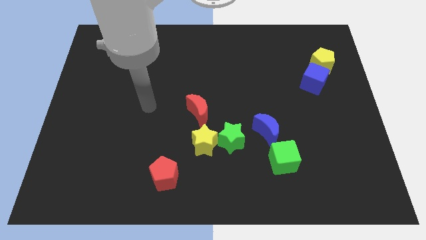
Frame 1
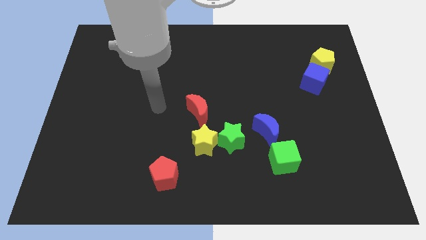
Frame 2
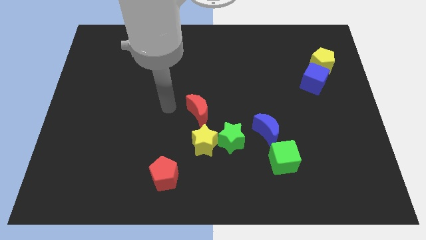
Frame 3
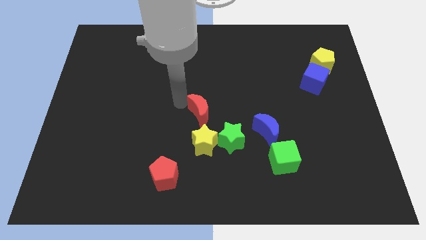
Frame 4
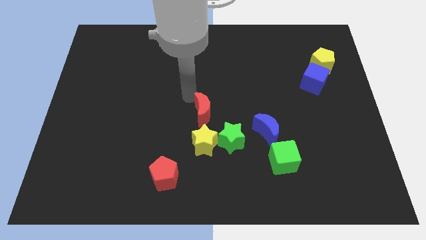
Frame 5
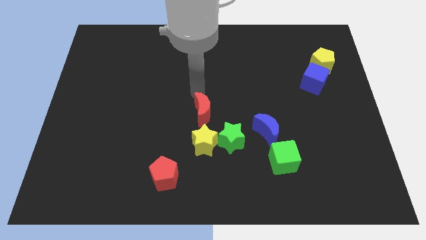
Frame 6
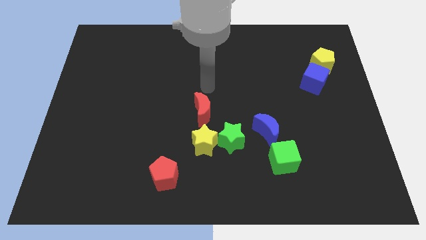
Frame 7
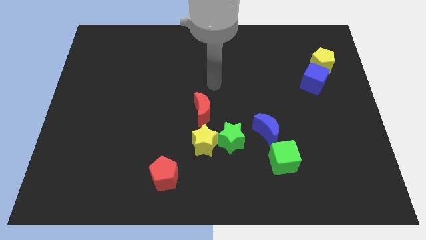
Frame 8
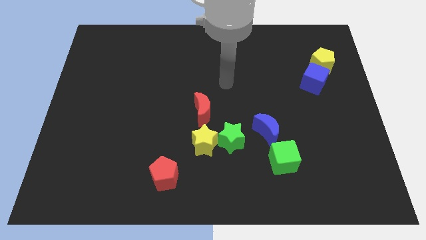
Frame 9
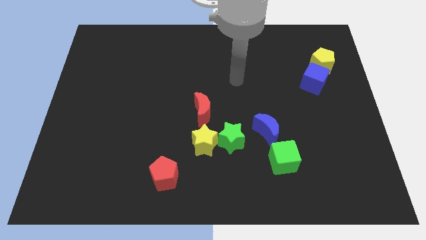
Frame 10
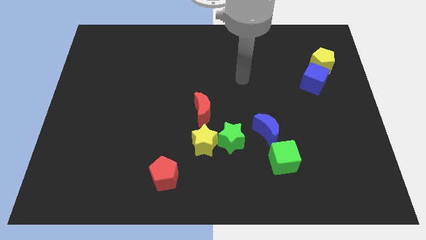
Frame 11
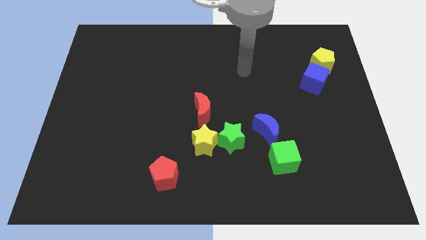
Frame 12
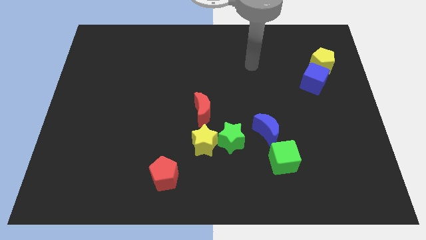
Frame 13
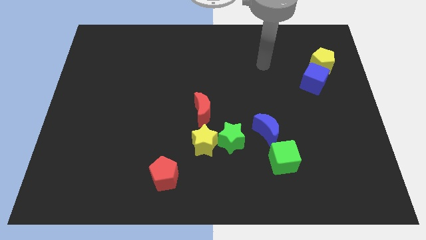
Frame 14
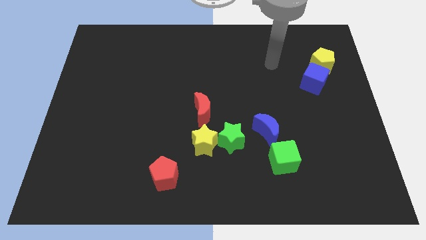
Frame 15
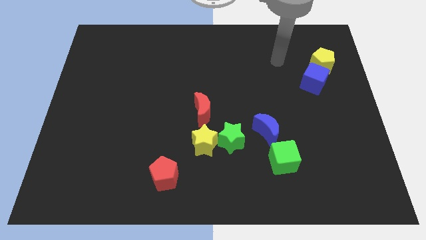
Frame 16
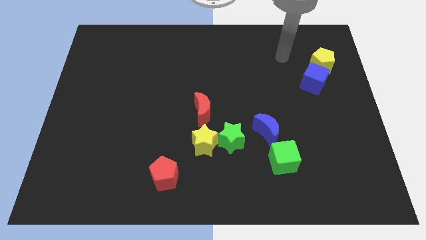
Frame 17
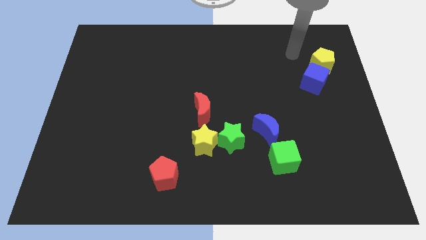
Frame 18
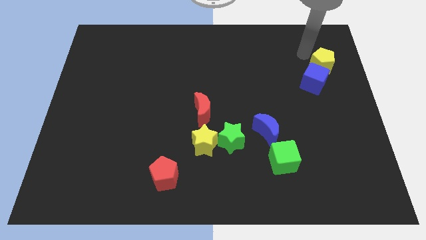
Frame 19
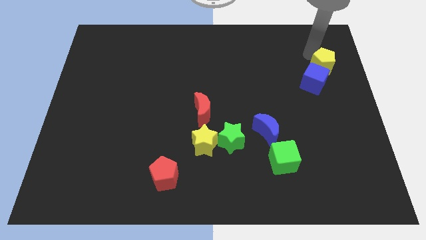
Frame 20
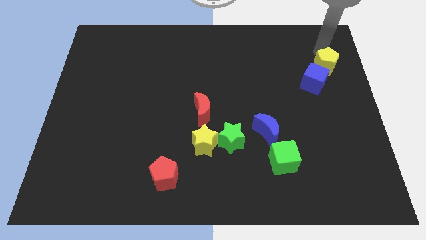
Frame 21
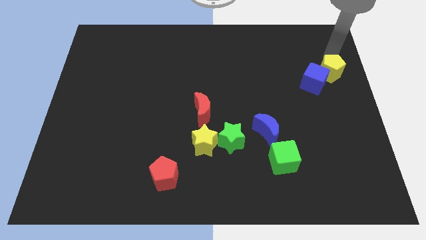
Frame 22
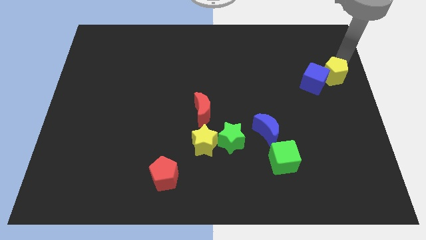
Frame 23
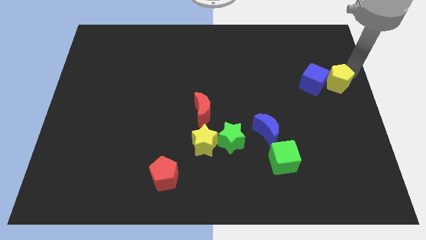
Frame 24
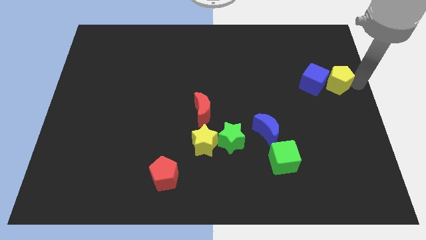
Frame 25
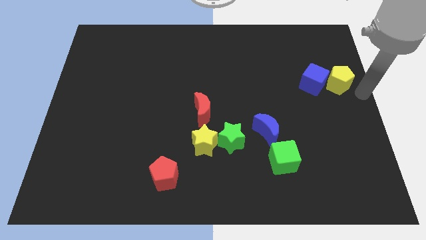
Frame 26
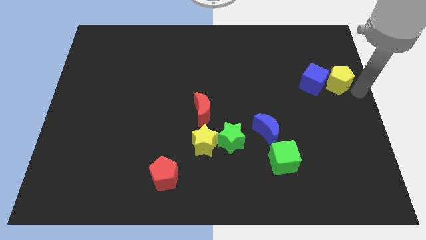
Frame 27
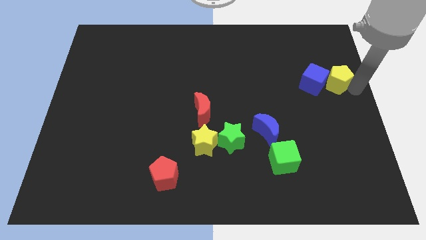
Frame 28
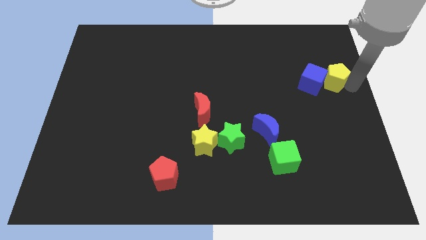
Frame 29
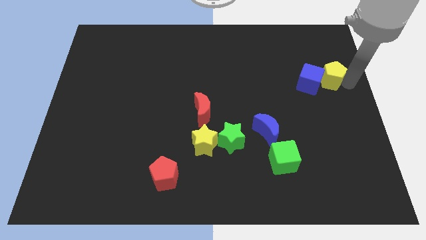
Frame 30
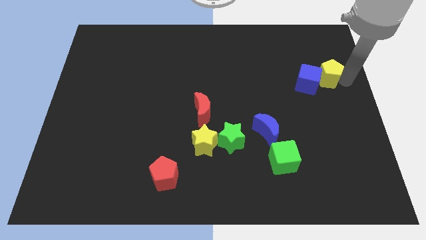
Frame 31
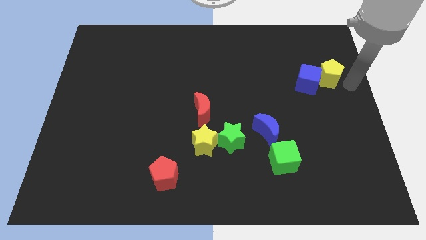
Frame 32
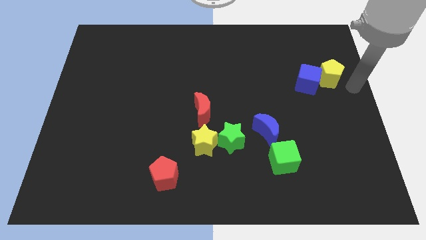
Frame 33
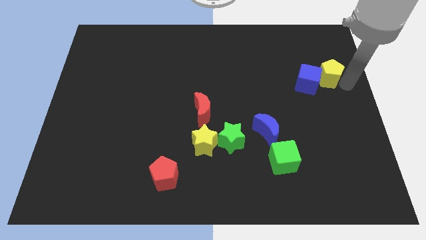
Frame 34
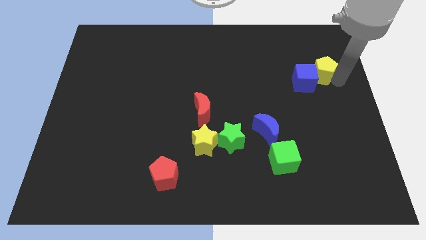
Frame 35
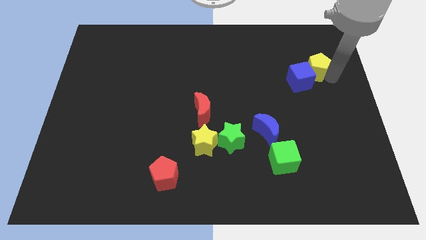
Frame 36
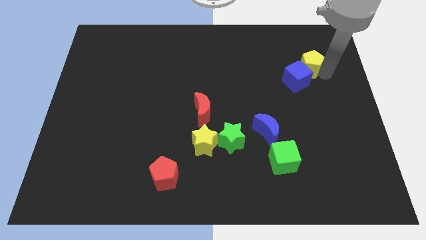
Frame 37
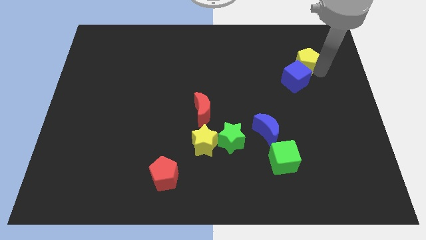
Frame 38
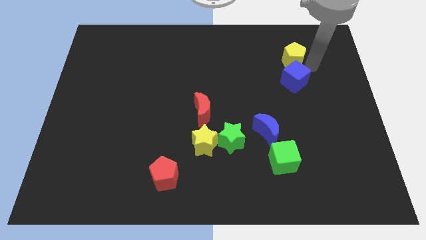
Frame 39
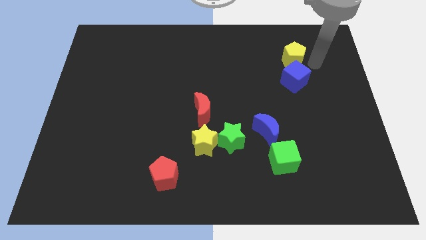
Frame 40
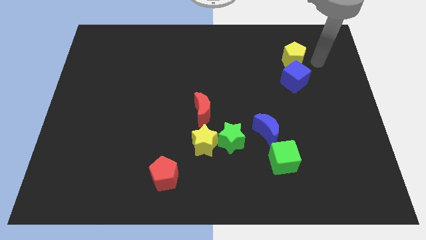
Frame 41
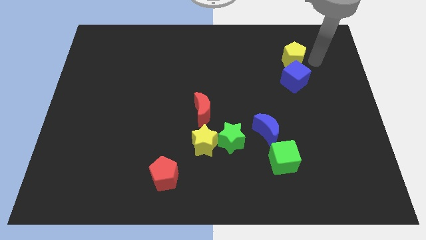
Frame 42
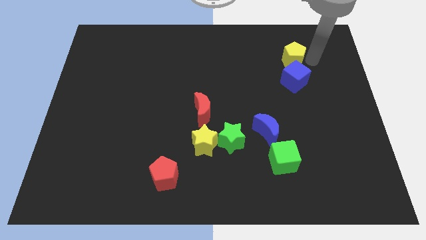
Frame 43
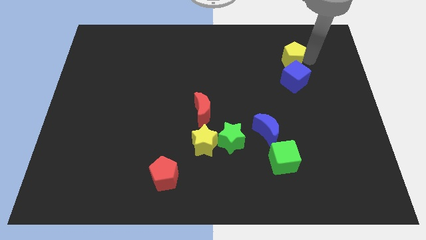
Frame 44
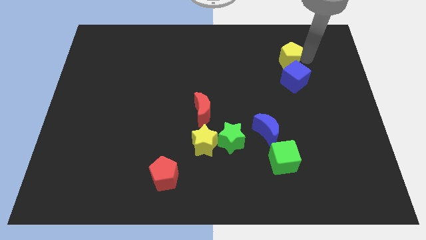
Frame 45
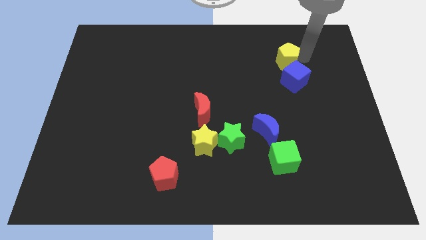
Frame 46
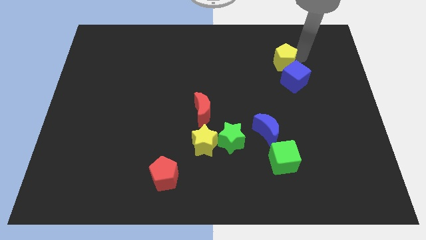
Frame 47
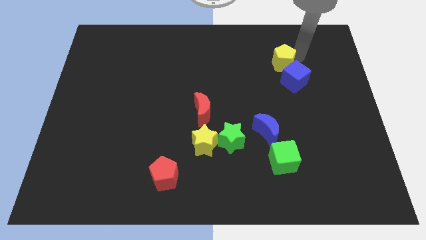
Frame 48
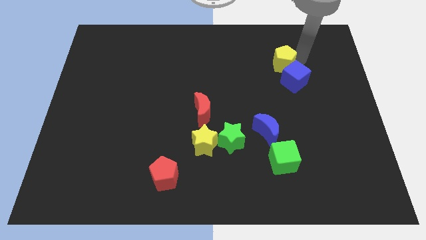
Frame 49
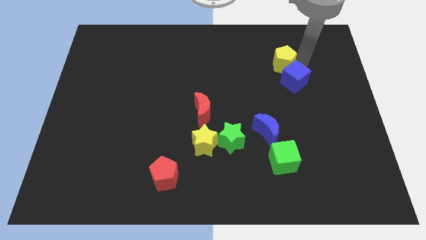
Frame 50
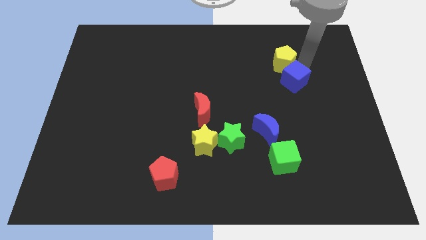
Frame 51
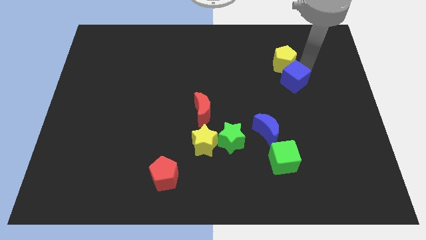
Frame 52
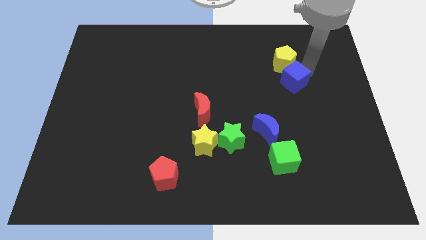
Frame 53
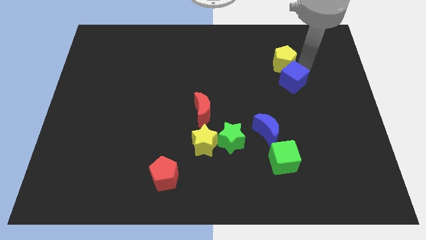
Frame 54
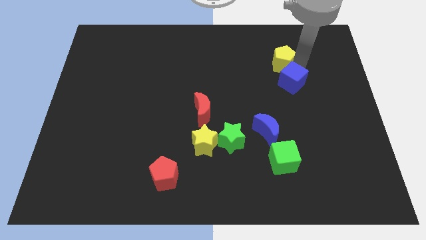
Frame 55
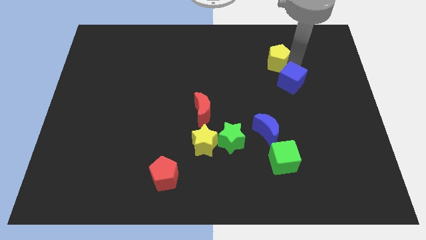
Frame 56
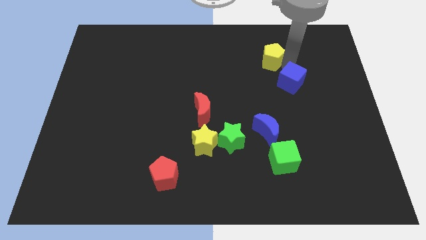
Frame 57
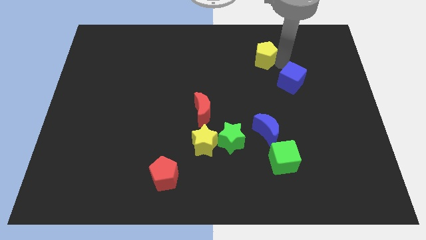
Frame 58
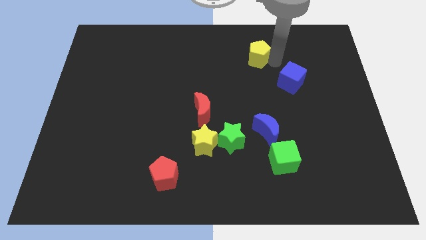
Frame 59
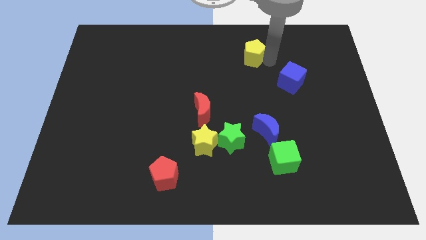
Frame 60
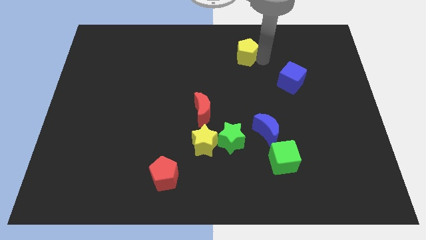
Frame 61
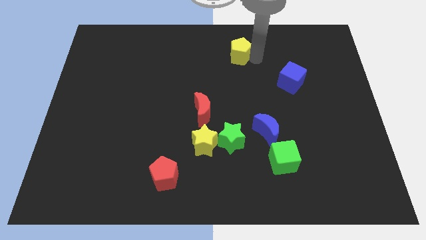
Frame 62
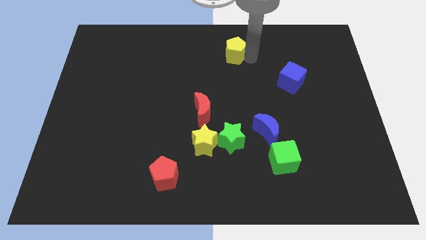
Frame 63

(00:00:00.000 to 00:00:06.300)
slide the yellow pentagon to the top side

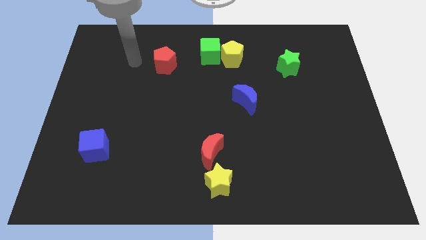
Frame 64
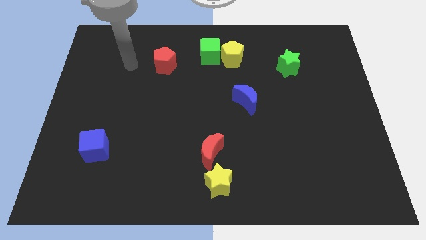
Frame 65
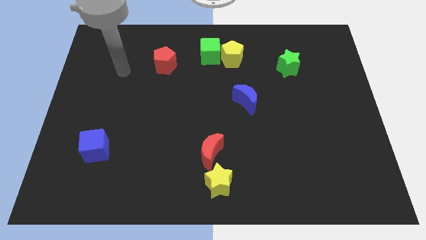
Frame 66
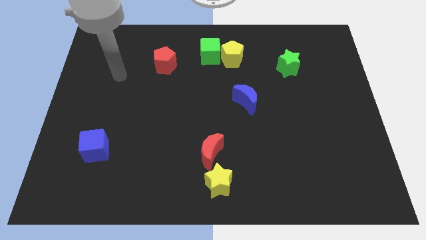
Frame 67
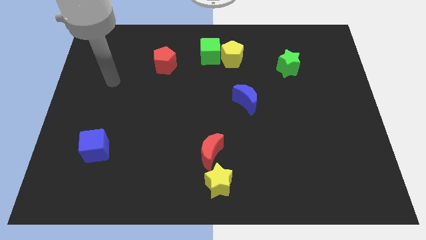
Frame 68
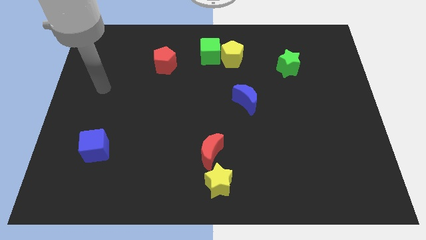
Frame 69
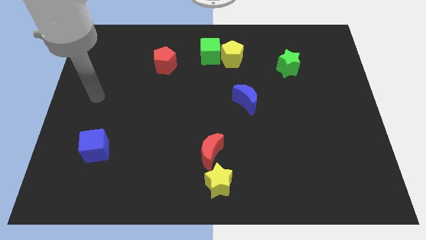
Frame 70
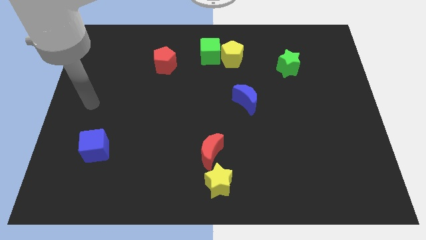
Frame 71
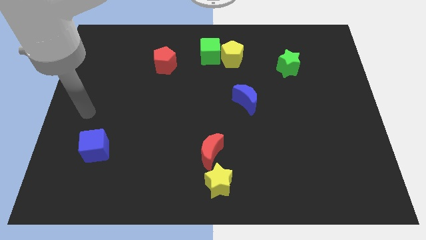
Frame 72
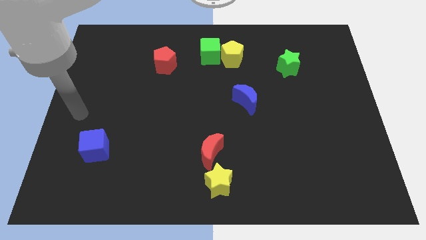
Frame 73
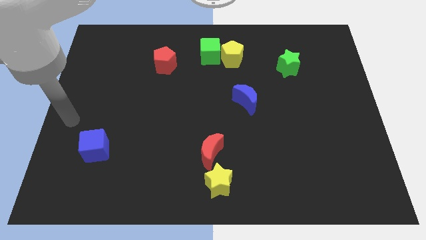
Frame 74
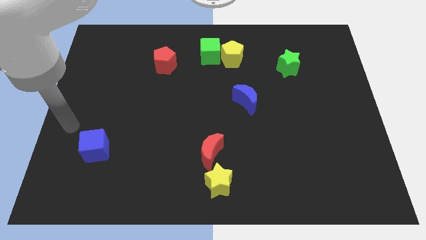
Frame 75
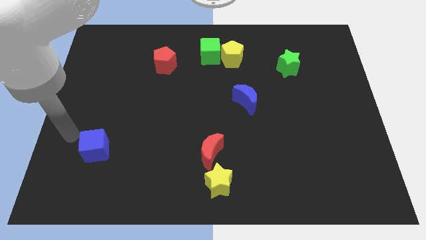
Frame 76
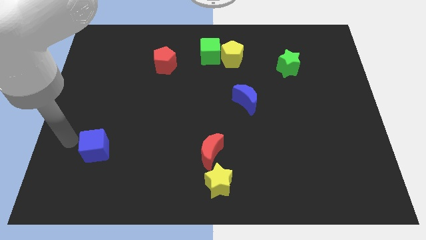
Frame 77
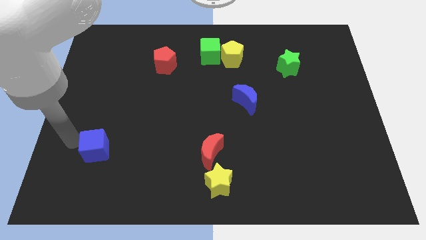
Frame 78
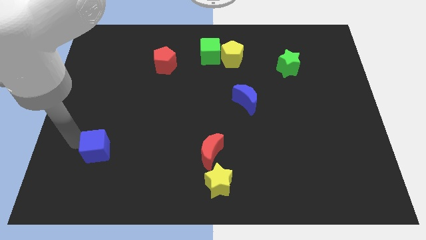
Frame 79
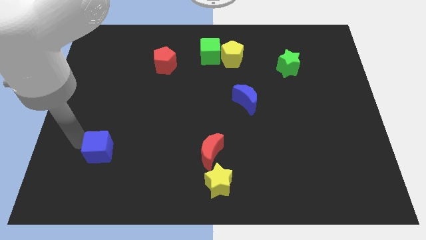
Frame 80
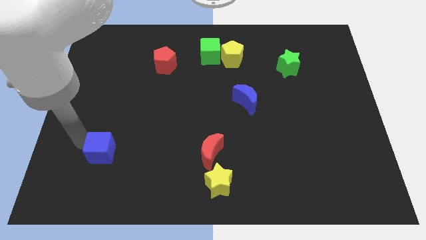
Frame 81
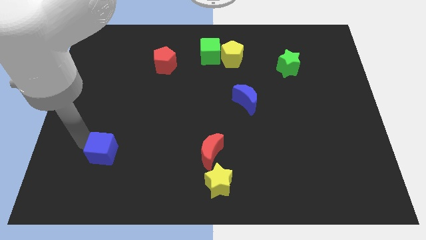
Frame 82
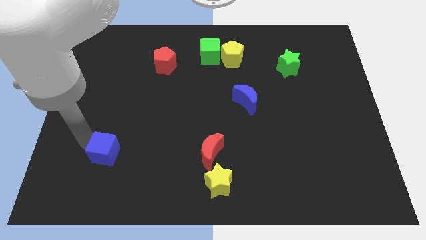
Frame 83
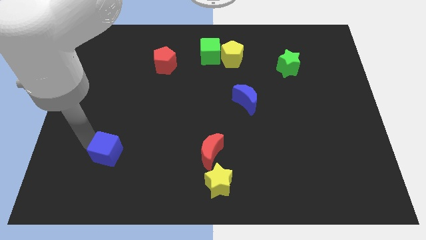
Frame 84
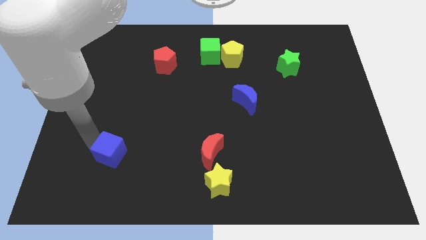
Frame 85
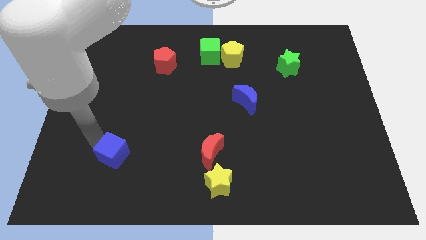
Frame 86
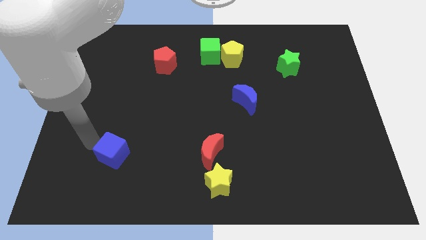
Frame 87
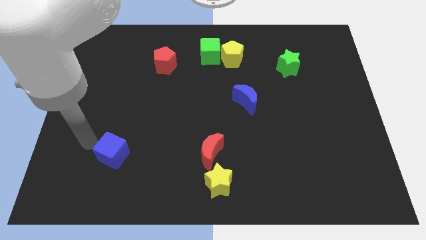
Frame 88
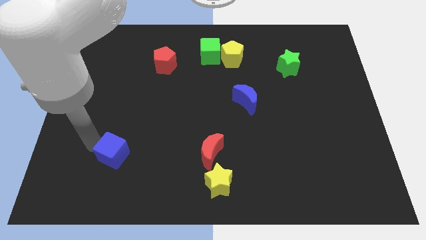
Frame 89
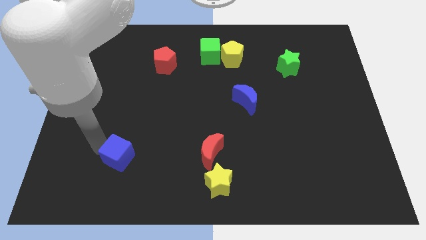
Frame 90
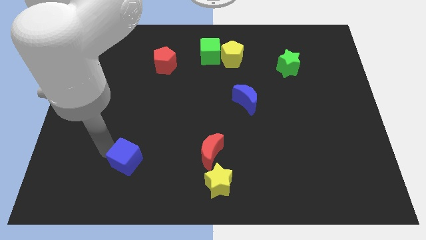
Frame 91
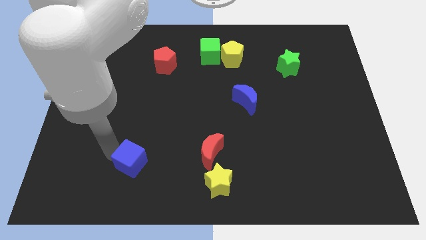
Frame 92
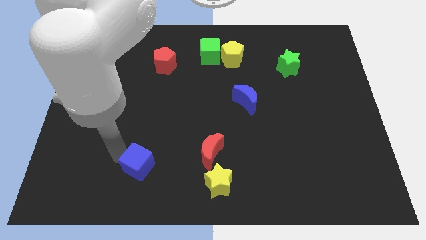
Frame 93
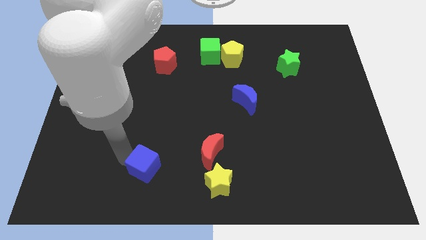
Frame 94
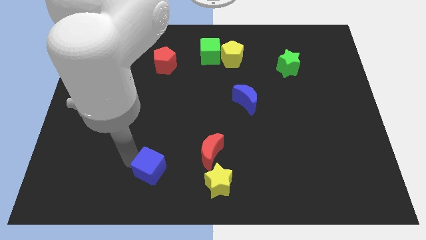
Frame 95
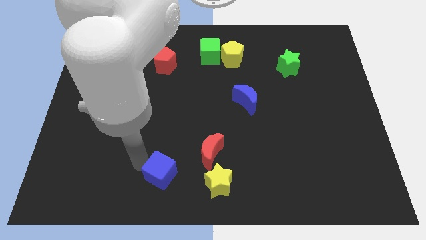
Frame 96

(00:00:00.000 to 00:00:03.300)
put the blue cube to the bottom
